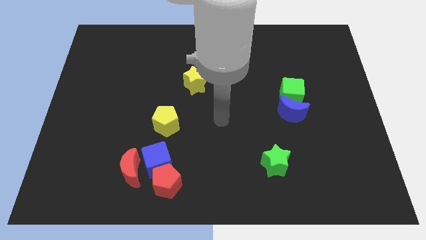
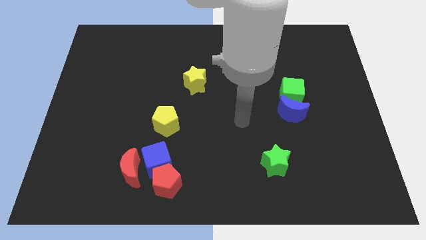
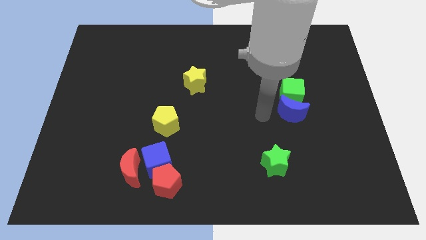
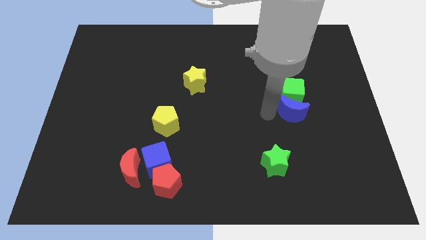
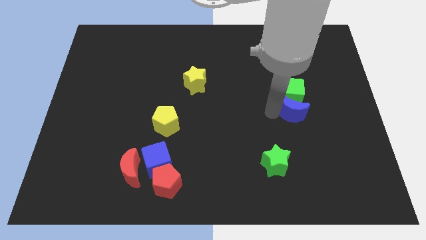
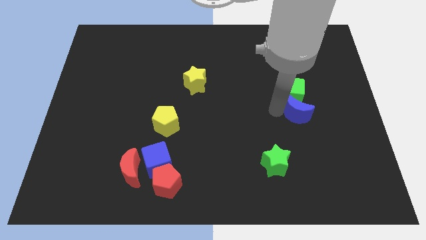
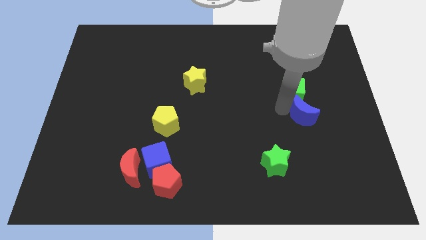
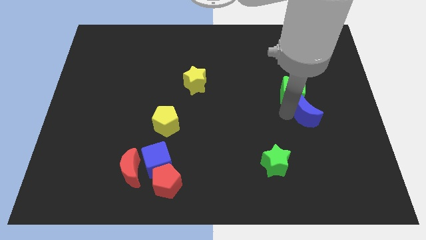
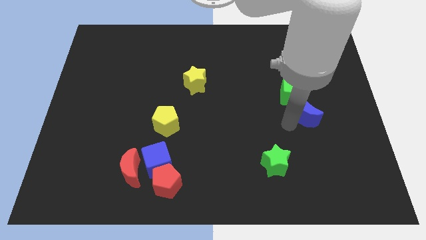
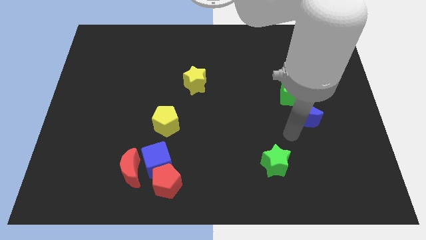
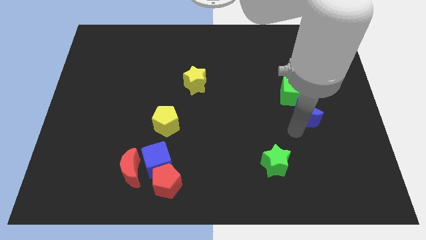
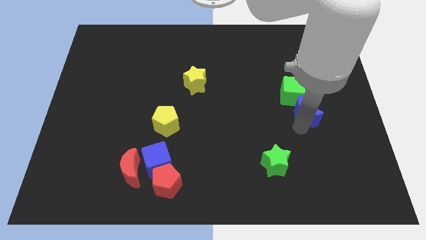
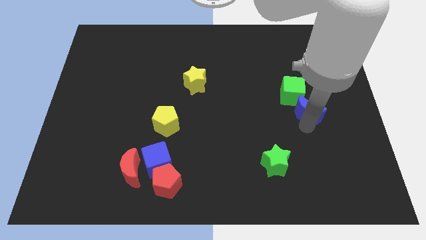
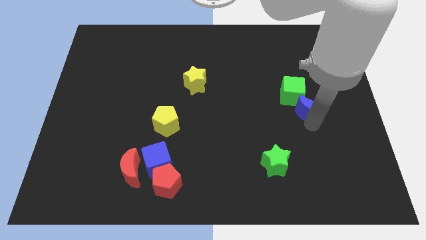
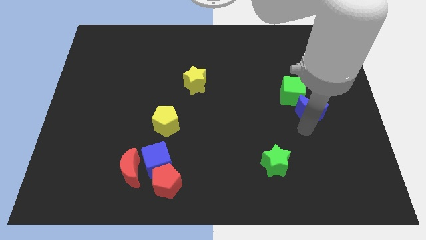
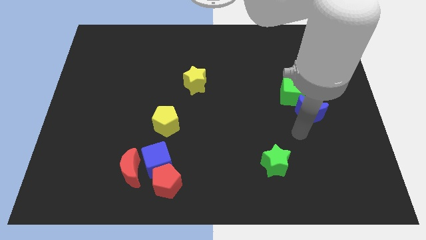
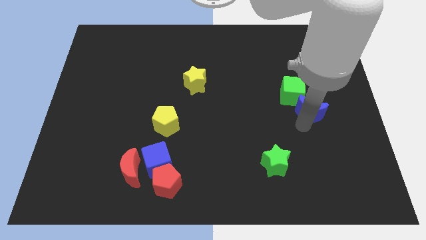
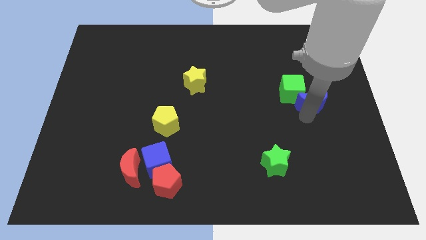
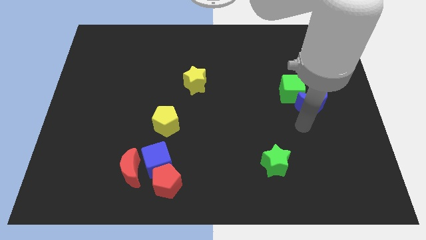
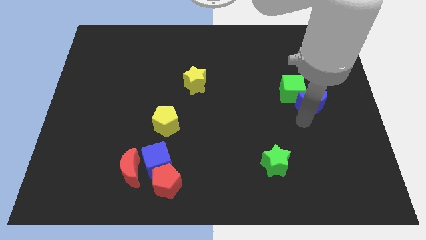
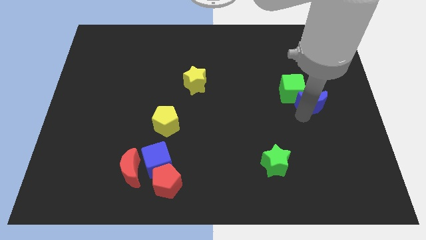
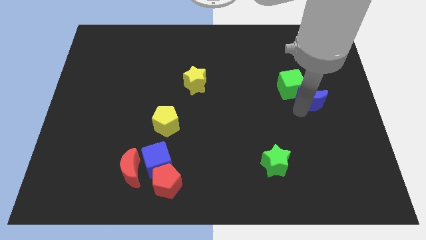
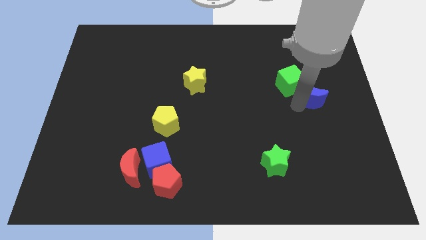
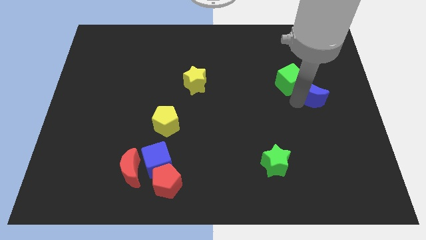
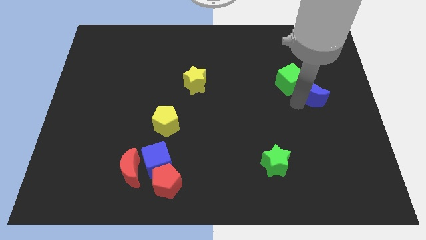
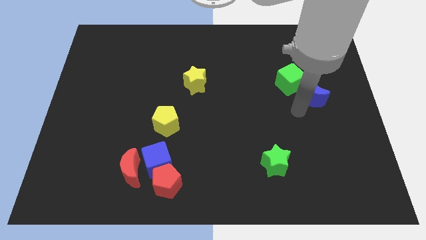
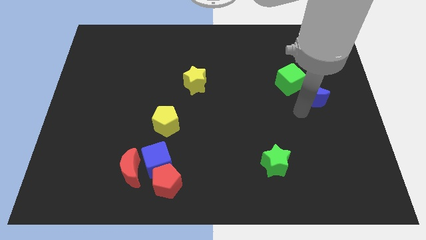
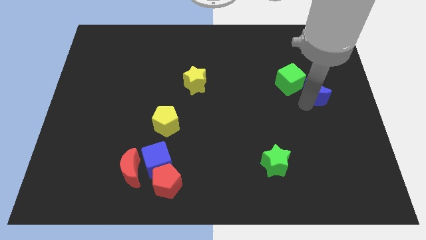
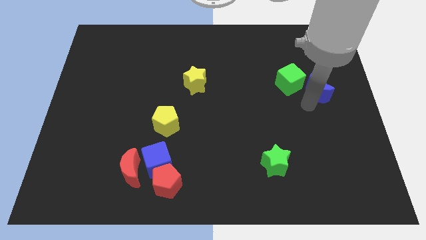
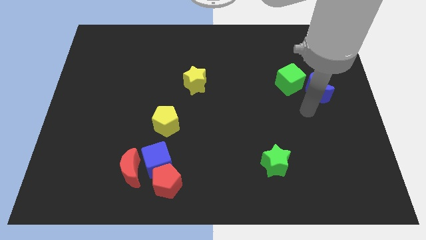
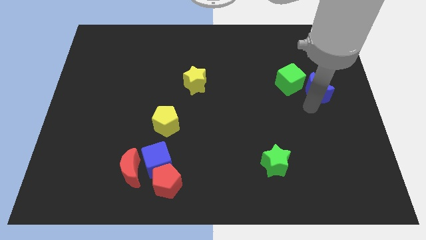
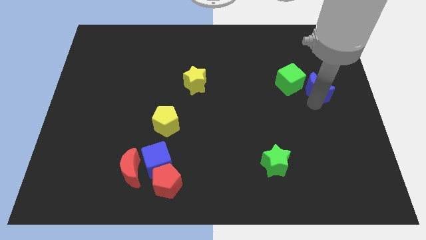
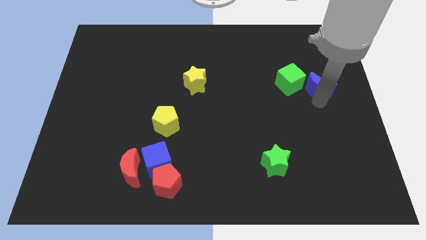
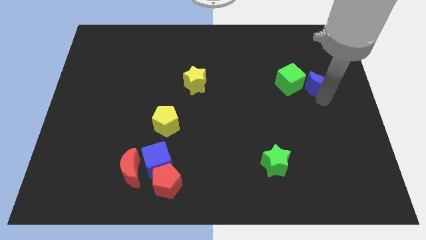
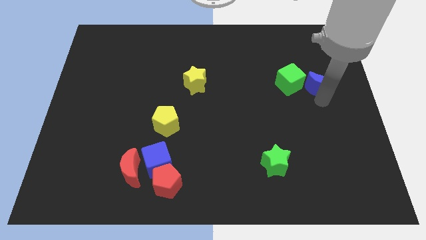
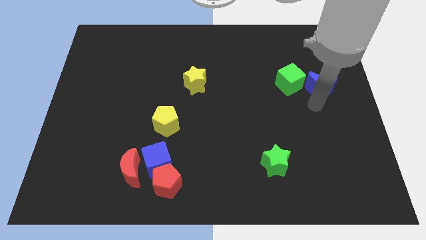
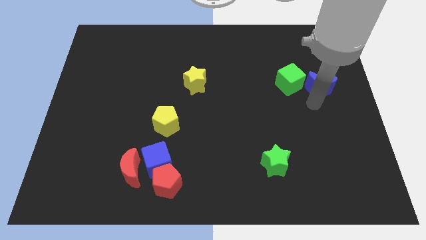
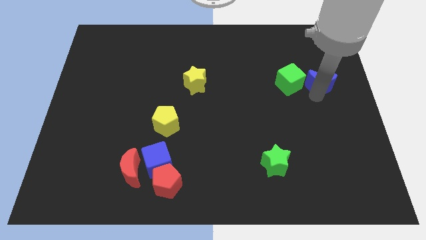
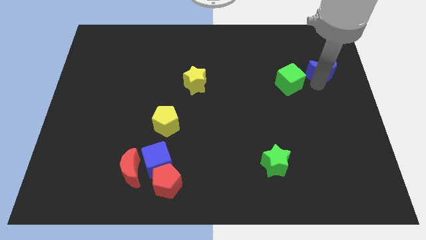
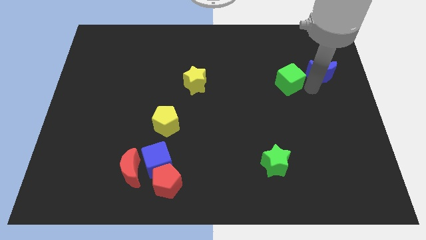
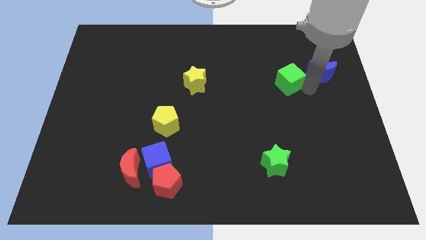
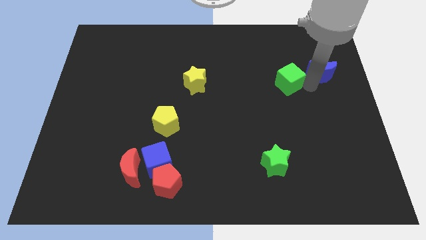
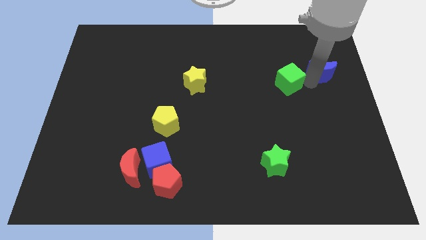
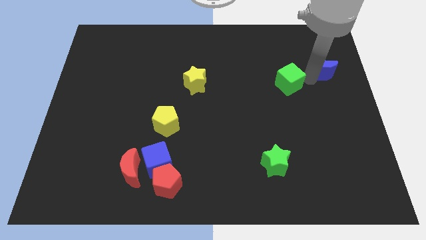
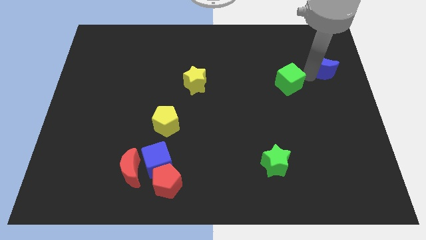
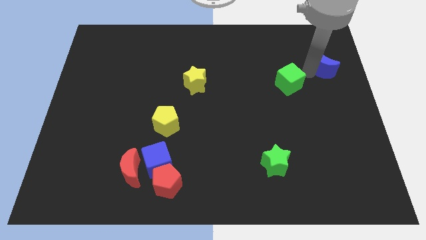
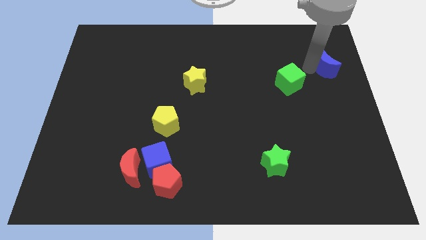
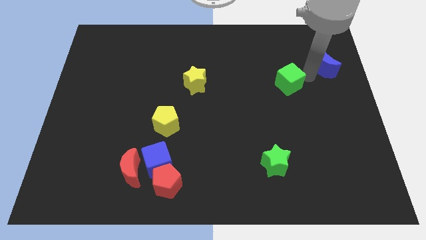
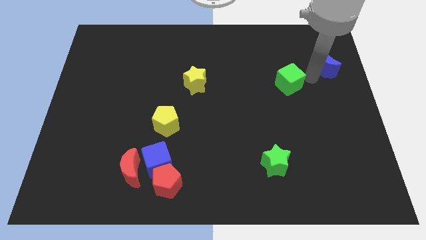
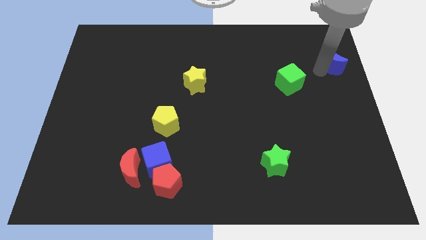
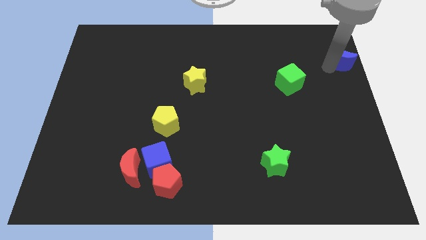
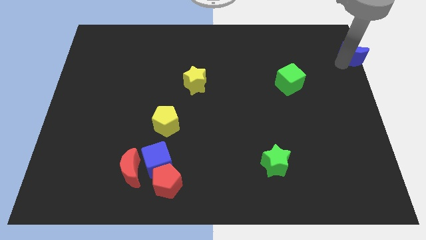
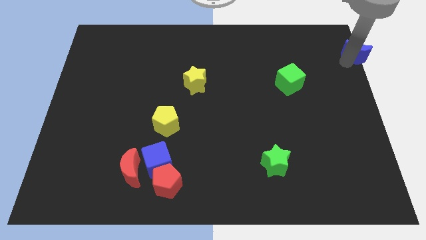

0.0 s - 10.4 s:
move the blue moon to the top right of the board

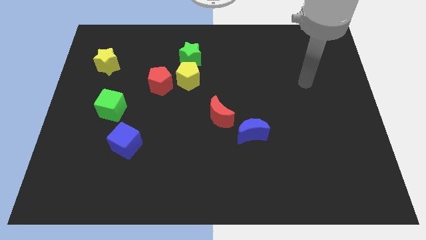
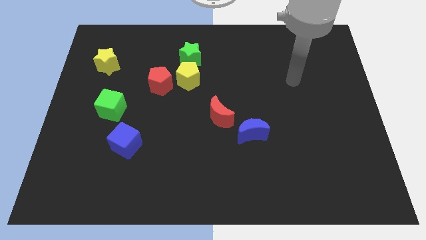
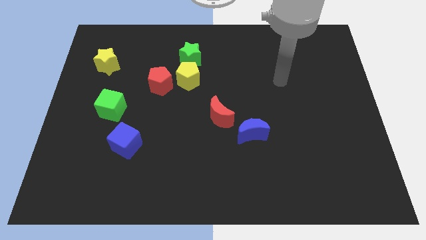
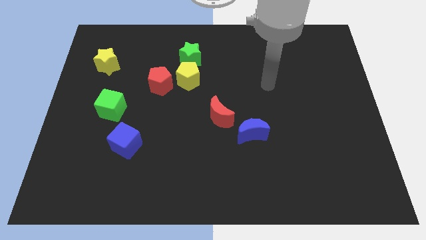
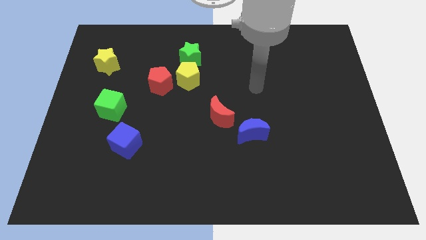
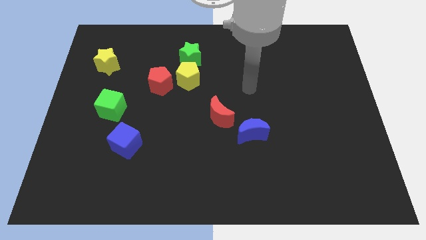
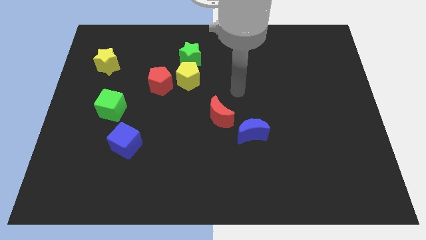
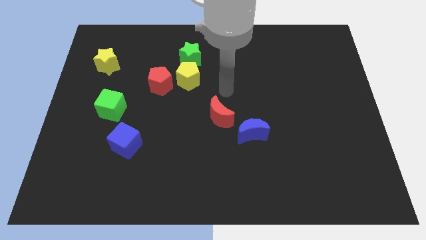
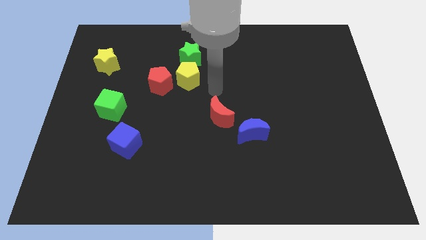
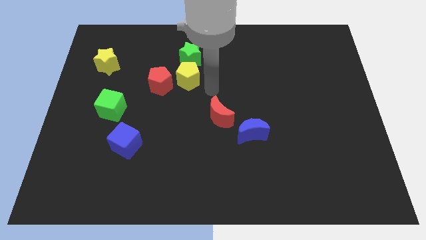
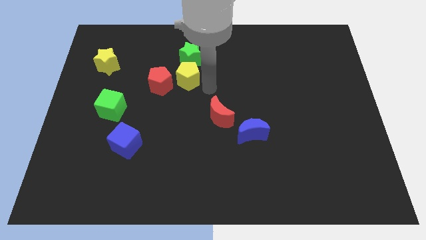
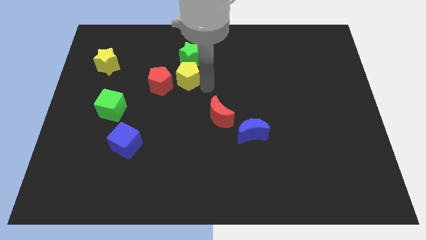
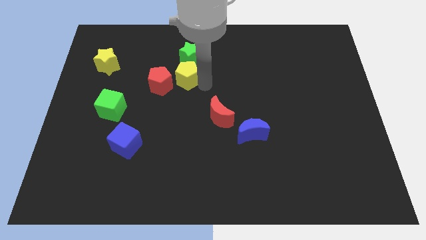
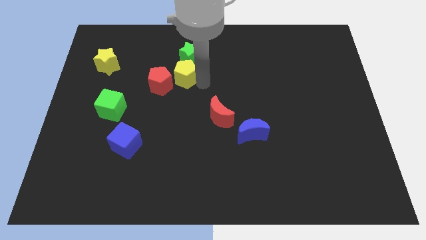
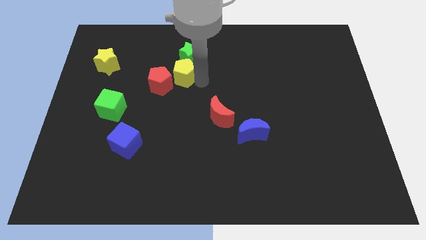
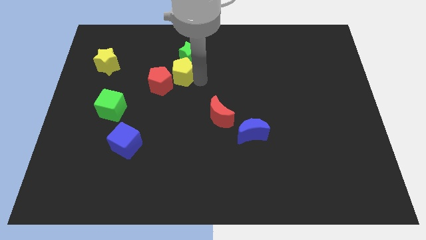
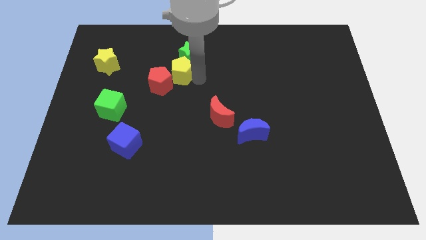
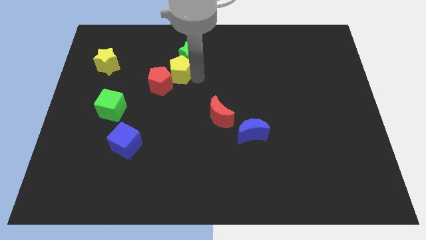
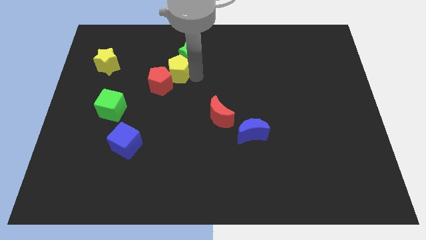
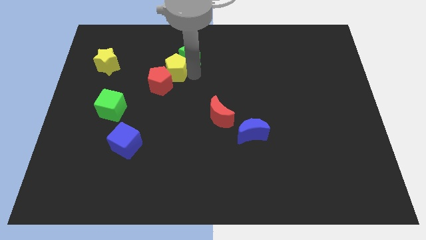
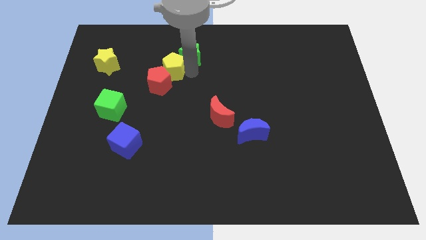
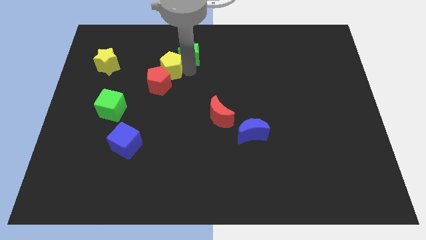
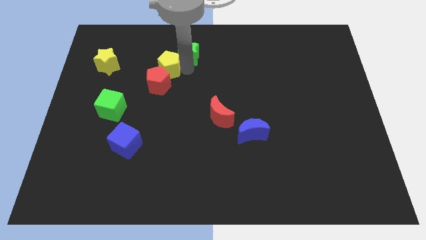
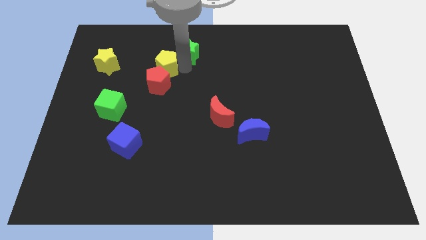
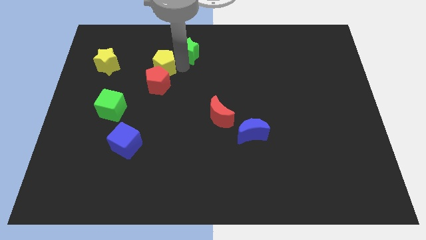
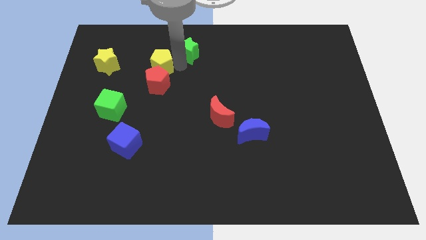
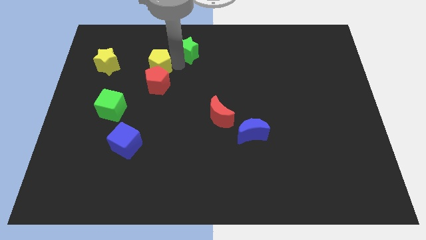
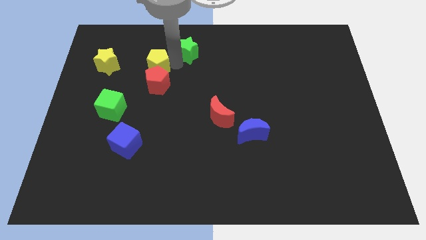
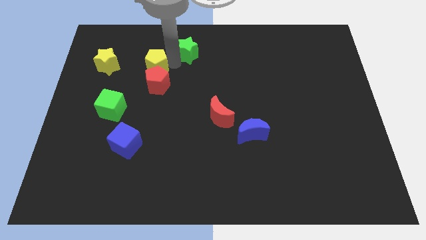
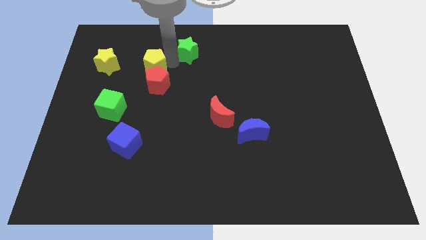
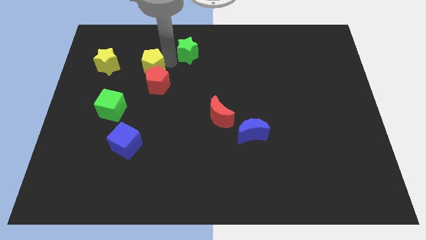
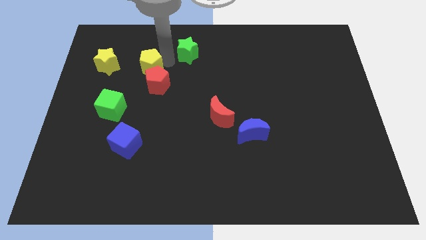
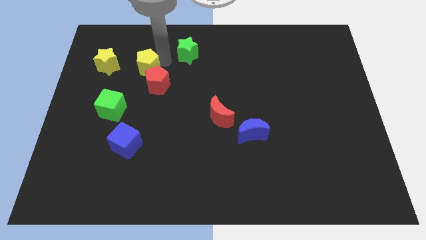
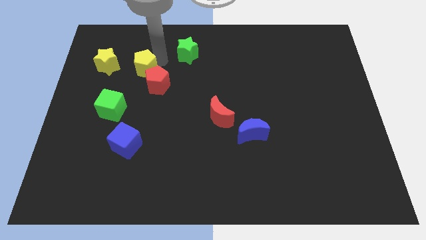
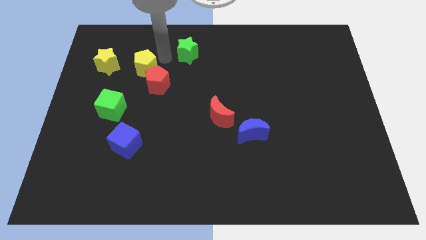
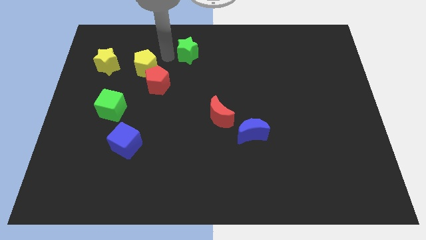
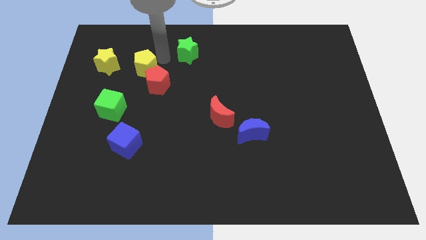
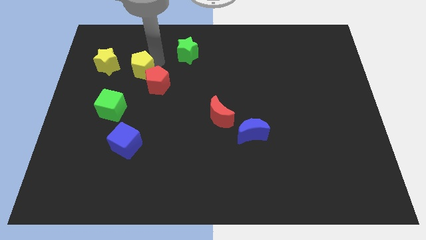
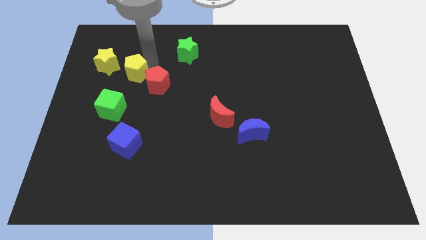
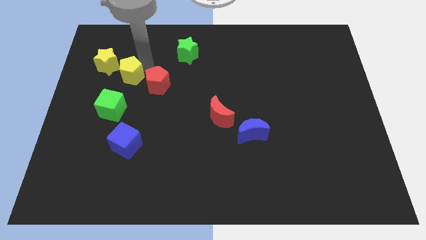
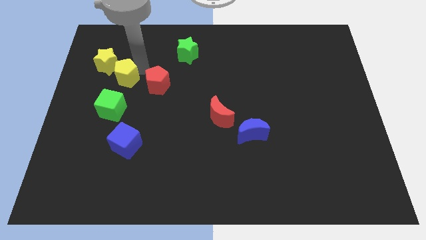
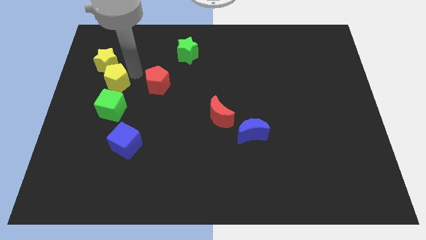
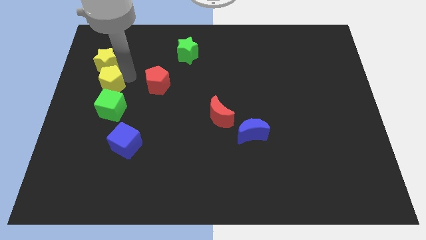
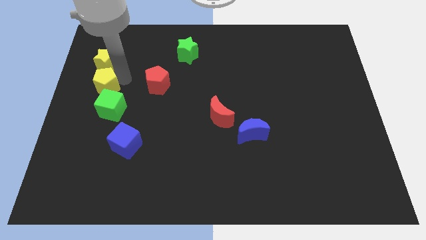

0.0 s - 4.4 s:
move the yellow pentagon to the left side of the board
